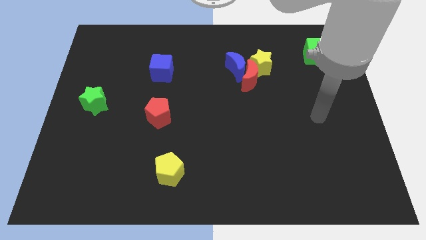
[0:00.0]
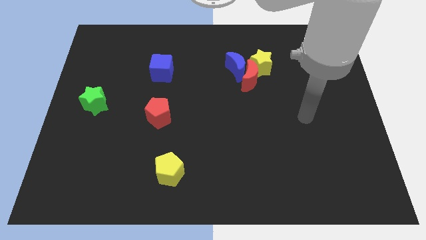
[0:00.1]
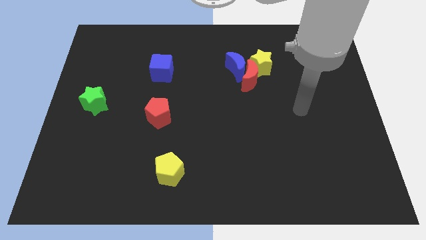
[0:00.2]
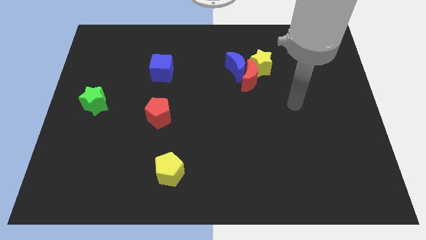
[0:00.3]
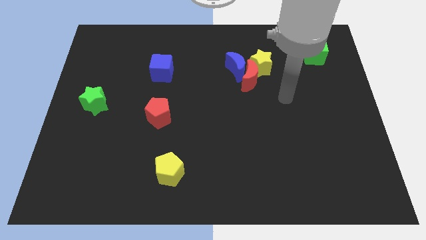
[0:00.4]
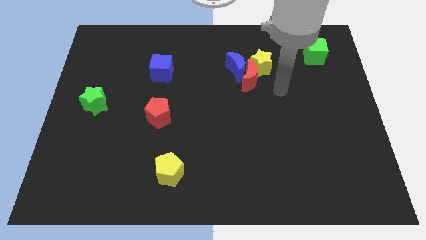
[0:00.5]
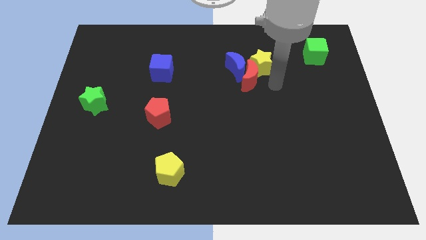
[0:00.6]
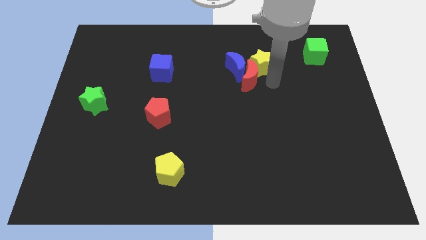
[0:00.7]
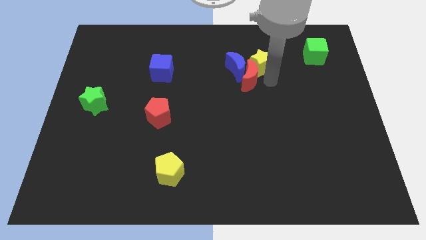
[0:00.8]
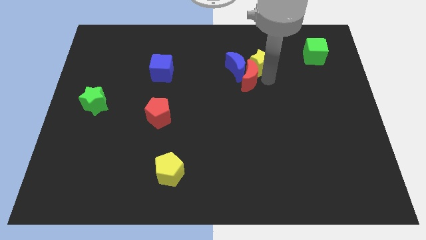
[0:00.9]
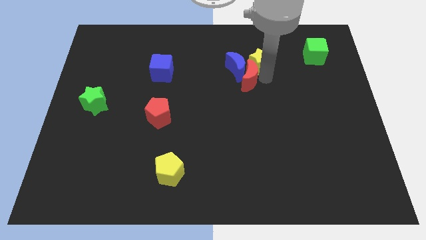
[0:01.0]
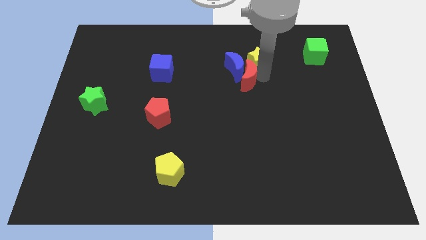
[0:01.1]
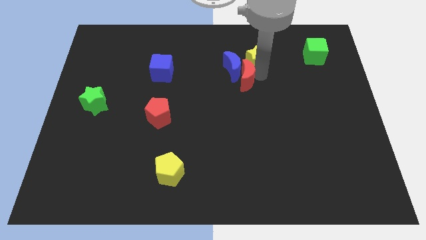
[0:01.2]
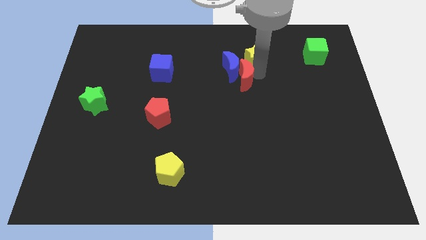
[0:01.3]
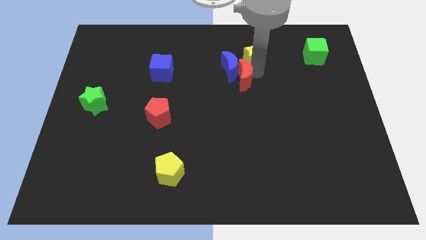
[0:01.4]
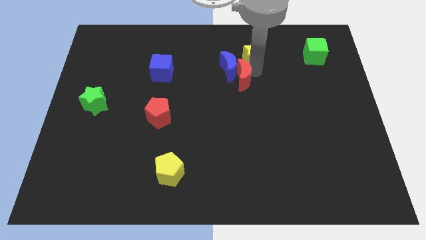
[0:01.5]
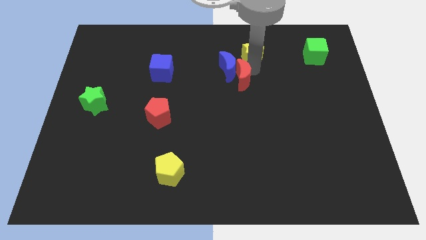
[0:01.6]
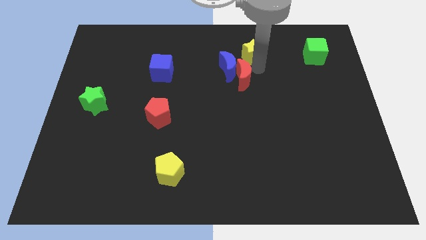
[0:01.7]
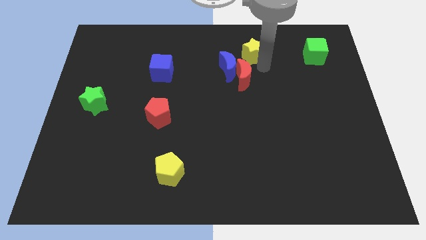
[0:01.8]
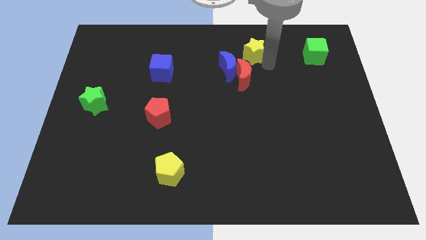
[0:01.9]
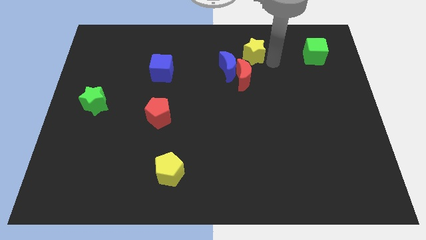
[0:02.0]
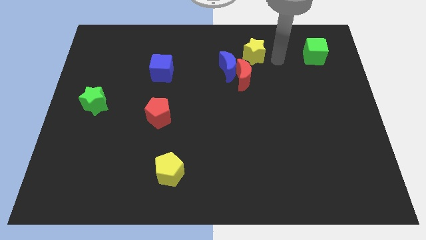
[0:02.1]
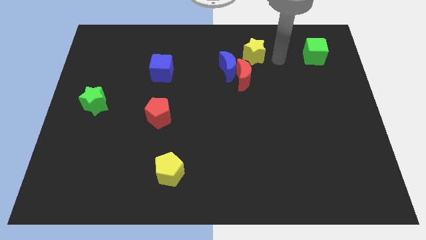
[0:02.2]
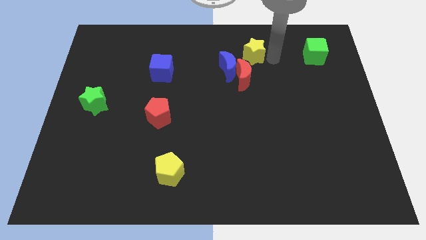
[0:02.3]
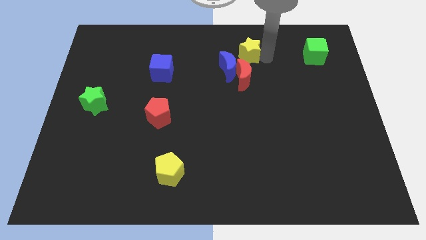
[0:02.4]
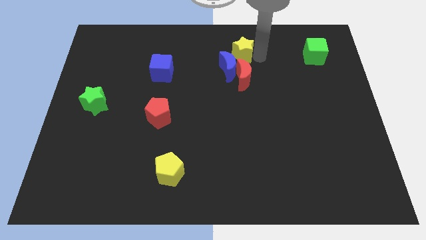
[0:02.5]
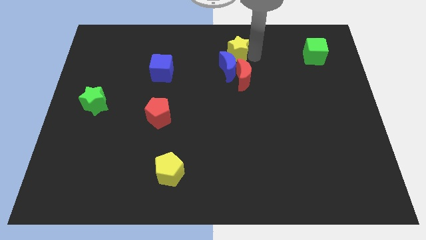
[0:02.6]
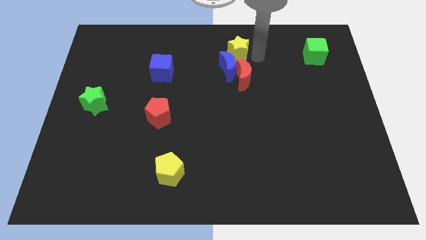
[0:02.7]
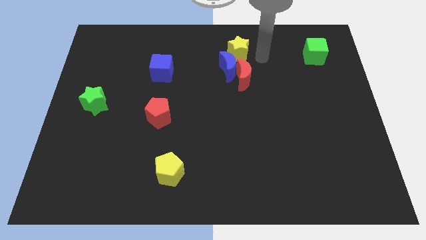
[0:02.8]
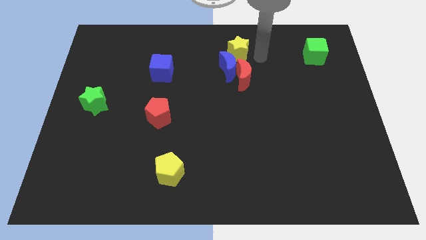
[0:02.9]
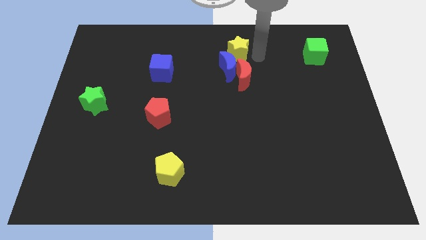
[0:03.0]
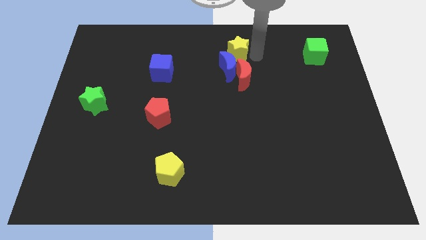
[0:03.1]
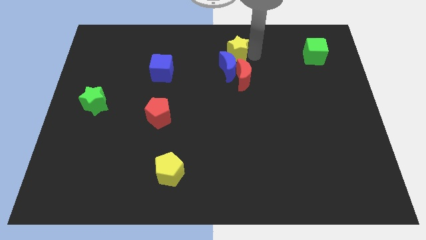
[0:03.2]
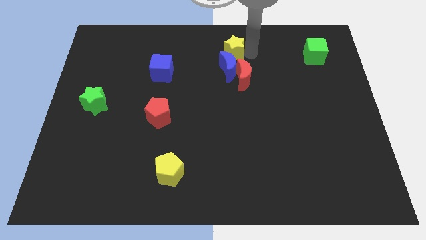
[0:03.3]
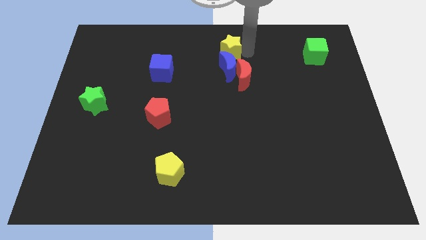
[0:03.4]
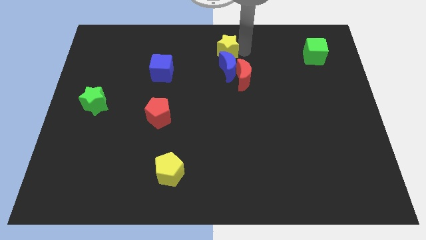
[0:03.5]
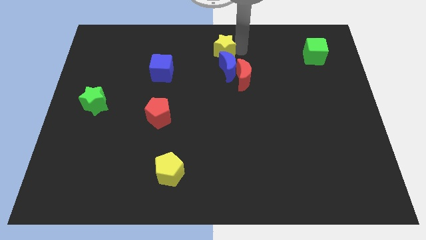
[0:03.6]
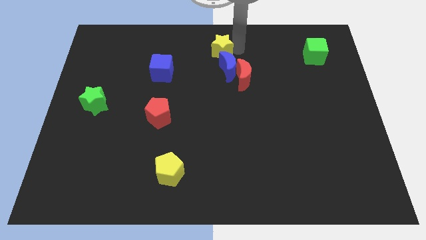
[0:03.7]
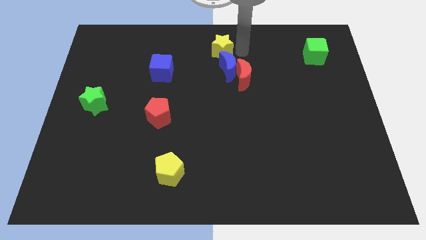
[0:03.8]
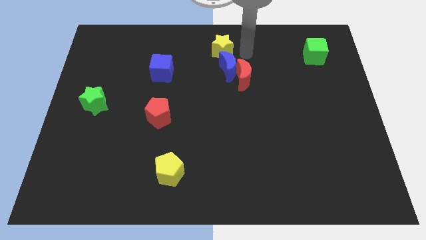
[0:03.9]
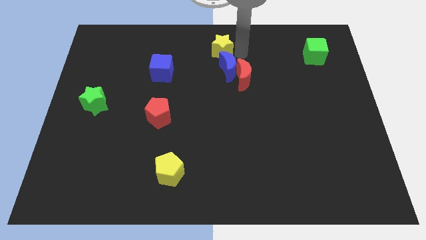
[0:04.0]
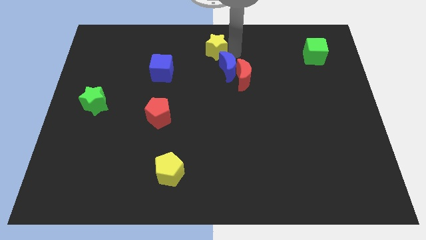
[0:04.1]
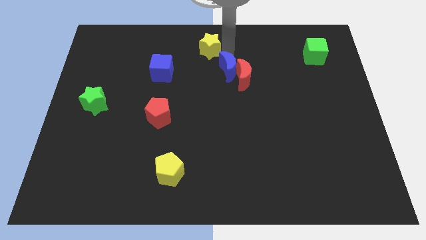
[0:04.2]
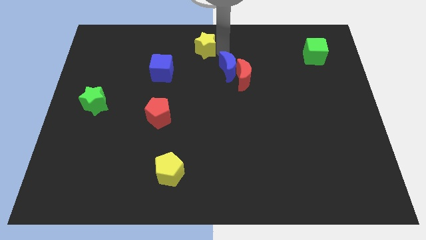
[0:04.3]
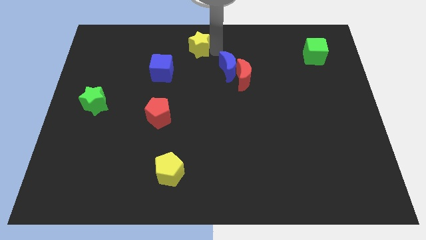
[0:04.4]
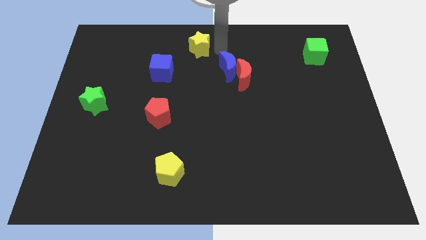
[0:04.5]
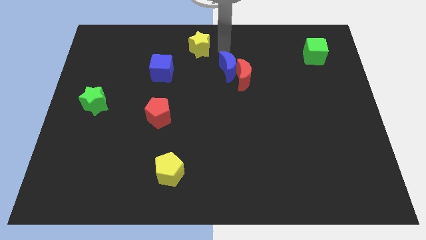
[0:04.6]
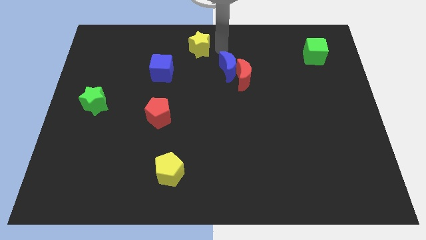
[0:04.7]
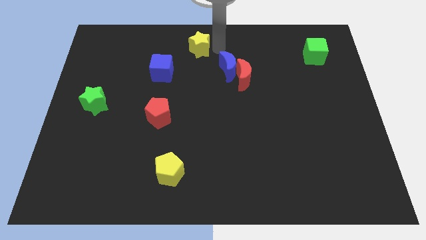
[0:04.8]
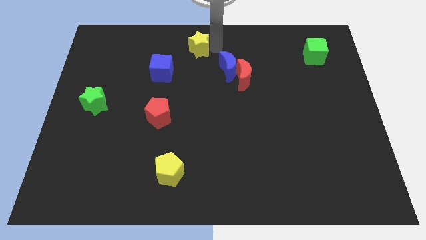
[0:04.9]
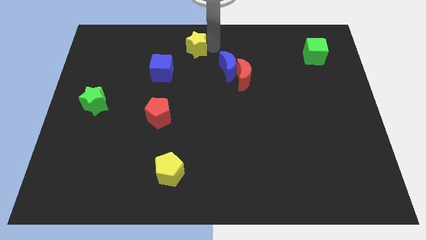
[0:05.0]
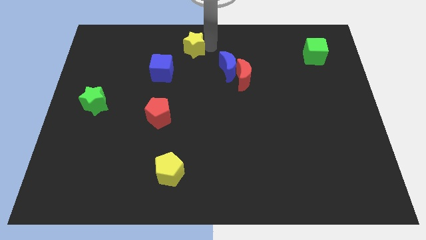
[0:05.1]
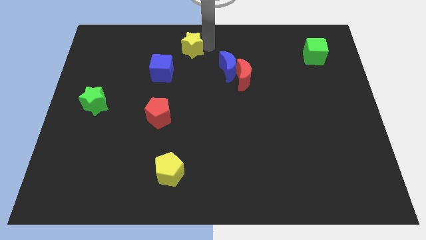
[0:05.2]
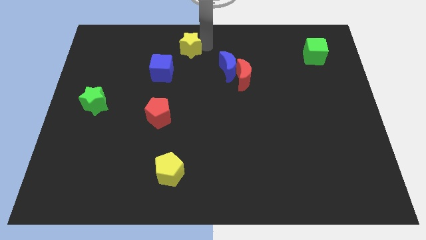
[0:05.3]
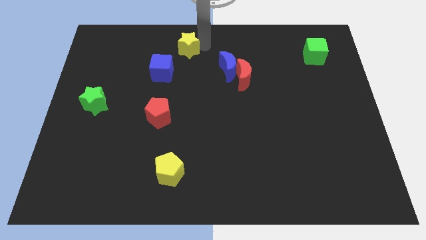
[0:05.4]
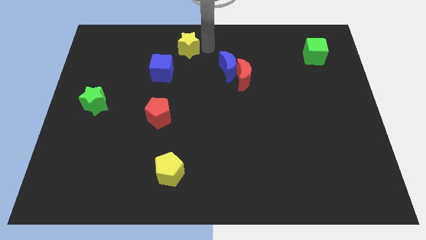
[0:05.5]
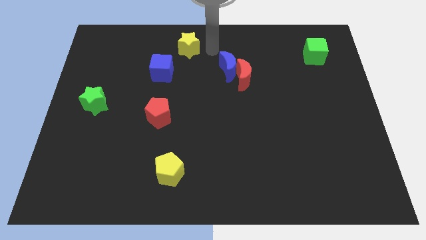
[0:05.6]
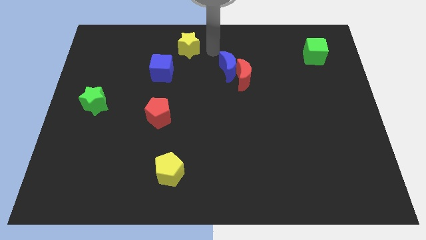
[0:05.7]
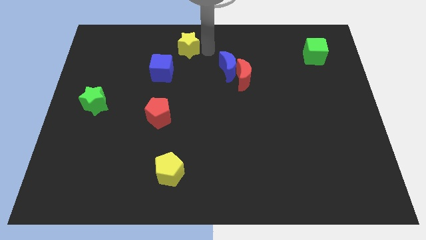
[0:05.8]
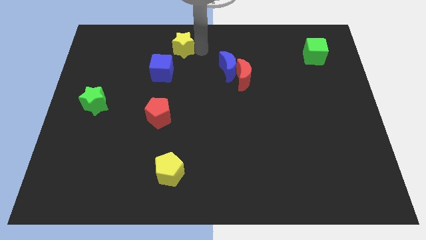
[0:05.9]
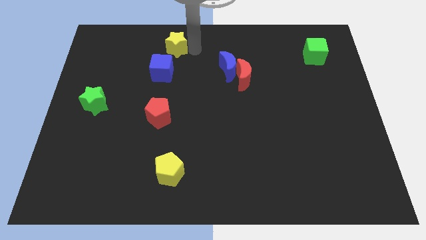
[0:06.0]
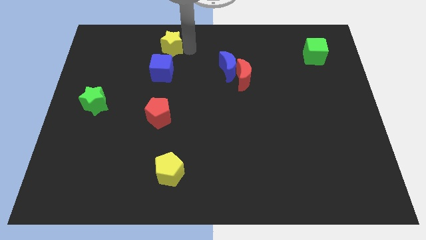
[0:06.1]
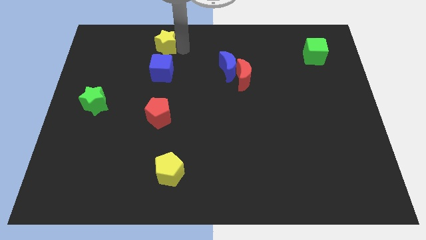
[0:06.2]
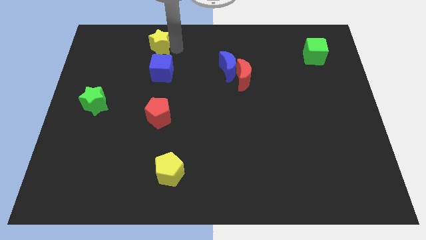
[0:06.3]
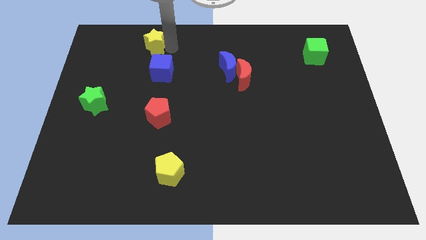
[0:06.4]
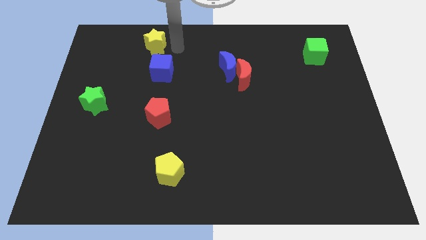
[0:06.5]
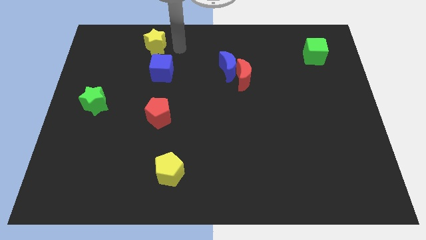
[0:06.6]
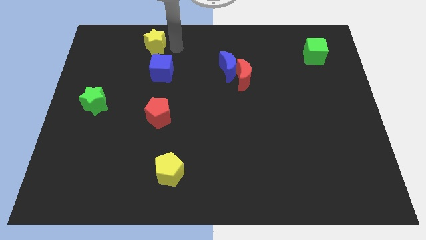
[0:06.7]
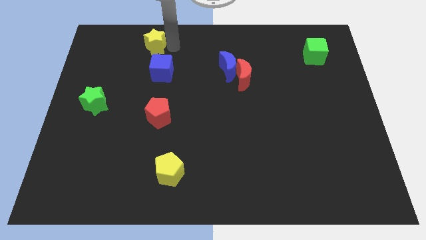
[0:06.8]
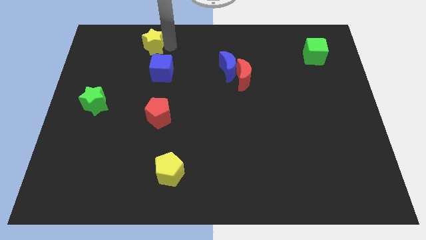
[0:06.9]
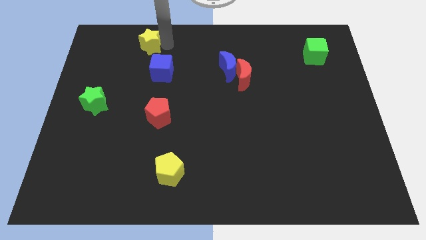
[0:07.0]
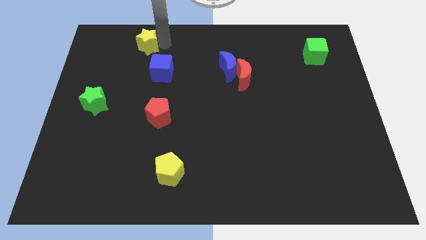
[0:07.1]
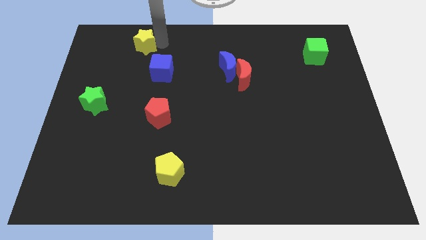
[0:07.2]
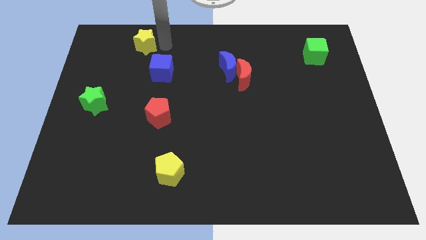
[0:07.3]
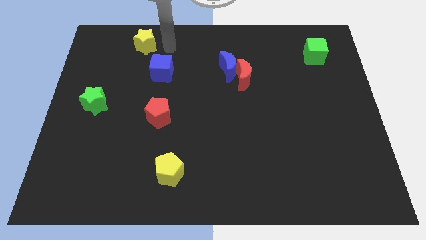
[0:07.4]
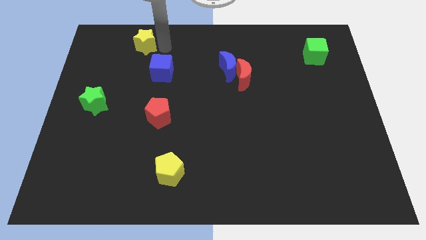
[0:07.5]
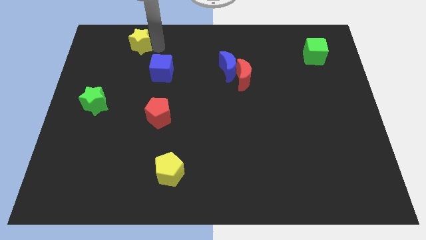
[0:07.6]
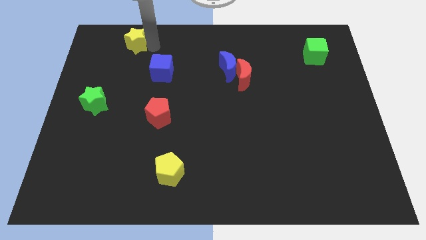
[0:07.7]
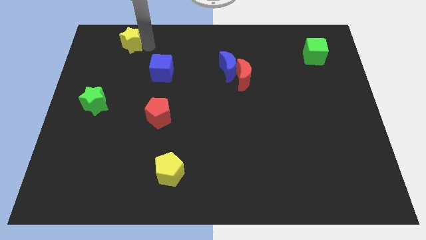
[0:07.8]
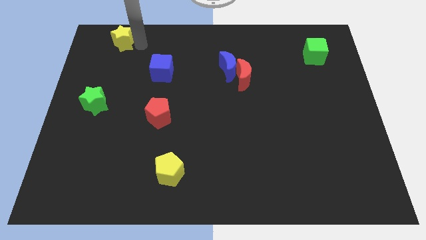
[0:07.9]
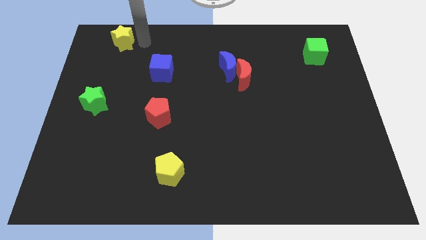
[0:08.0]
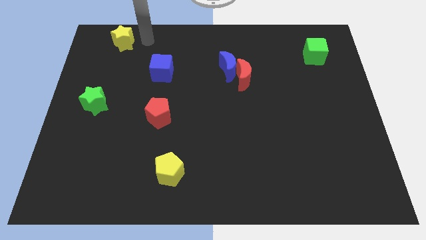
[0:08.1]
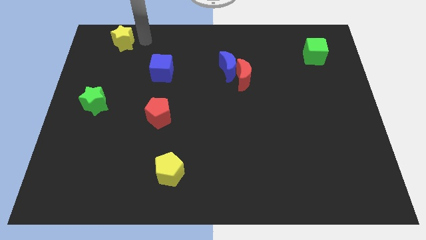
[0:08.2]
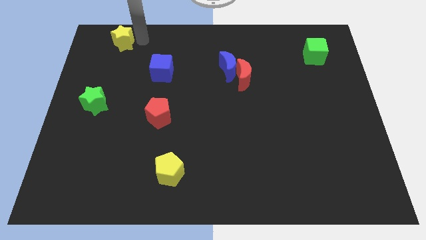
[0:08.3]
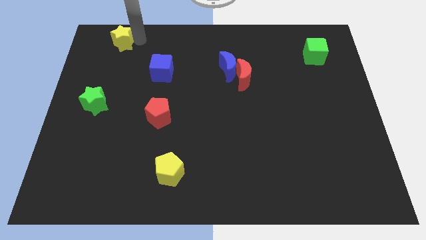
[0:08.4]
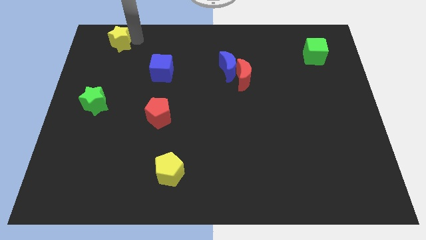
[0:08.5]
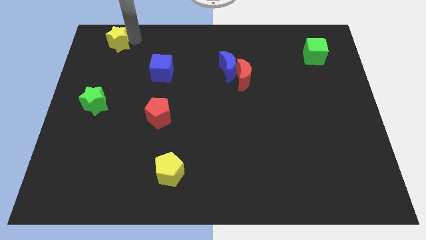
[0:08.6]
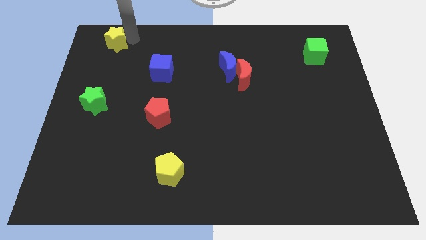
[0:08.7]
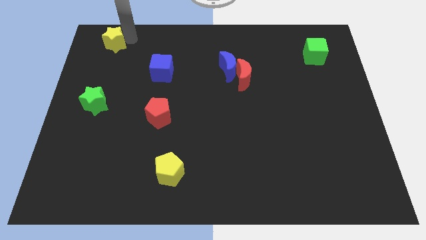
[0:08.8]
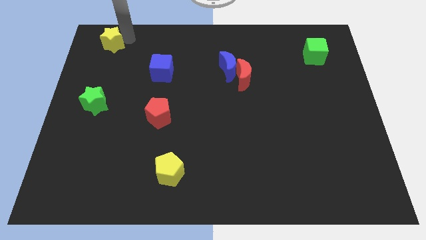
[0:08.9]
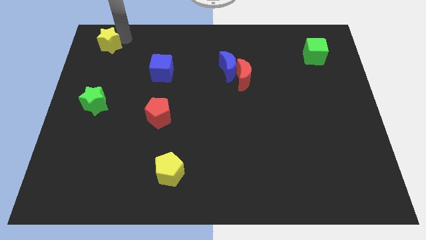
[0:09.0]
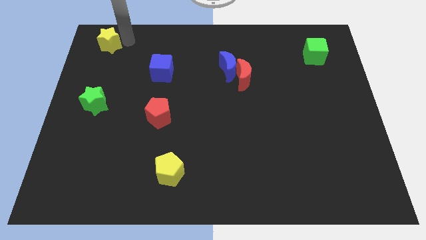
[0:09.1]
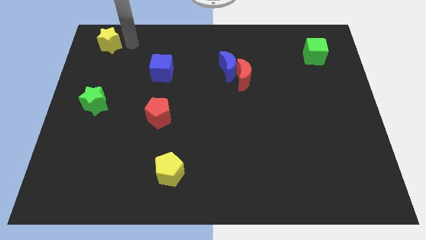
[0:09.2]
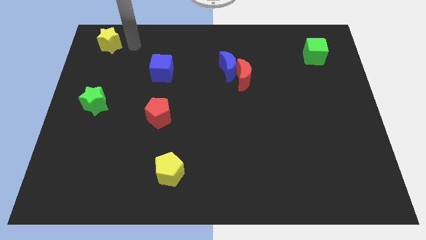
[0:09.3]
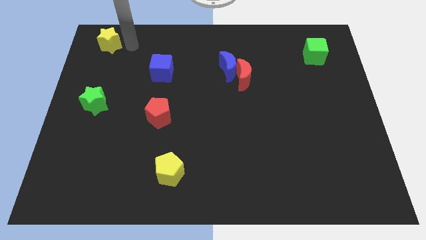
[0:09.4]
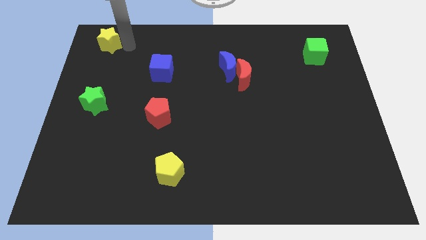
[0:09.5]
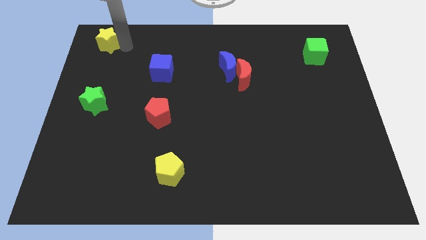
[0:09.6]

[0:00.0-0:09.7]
move the yellow star to the top left corner
